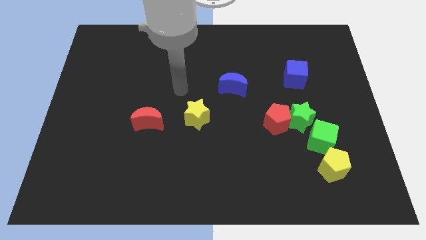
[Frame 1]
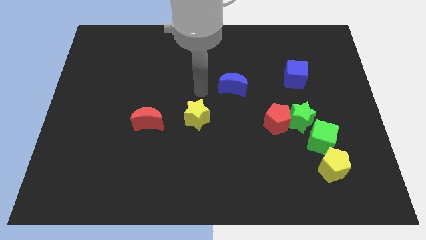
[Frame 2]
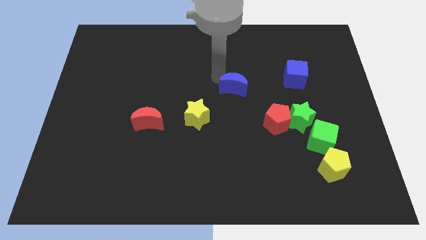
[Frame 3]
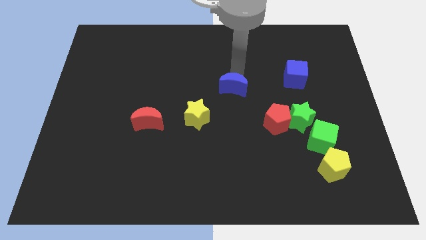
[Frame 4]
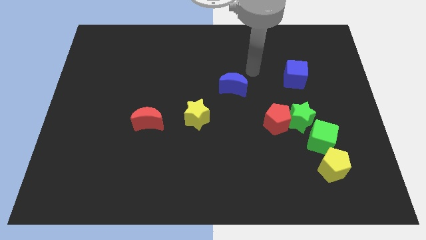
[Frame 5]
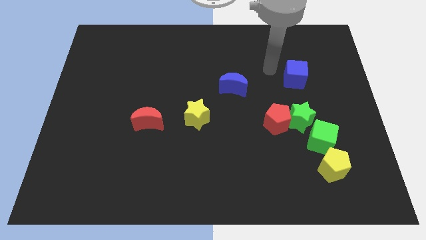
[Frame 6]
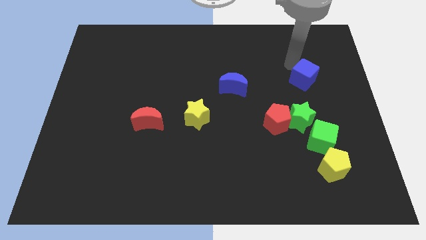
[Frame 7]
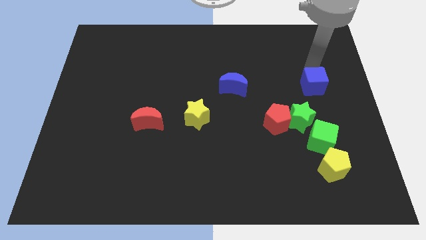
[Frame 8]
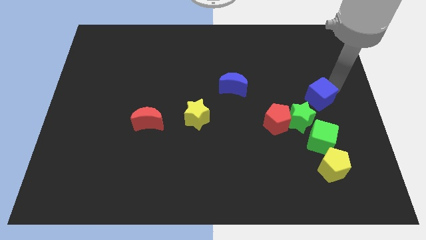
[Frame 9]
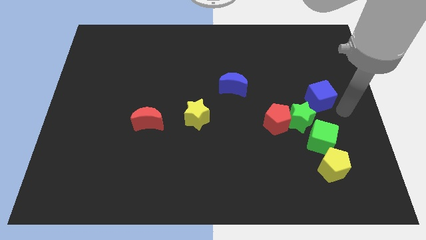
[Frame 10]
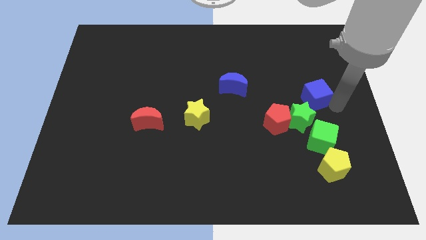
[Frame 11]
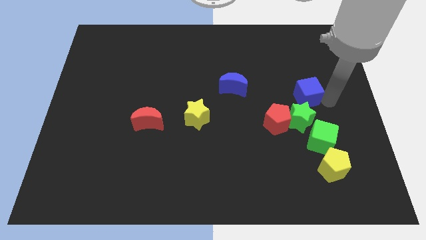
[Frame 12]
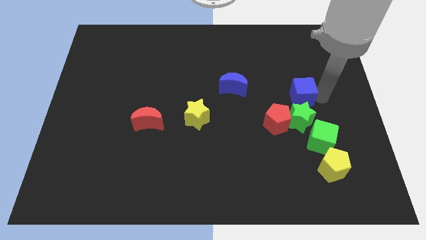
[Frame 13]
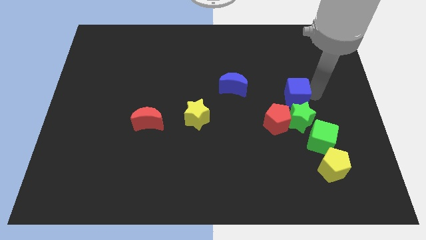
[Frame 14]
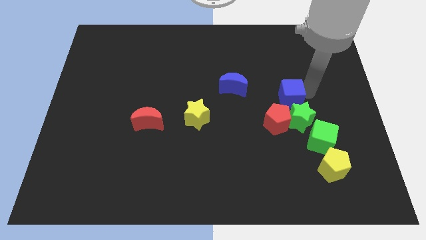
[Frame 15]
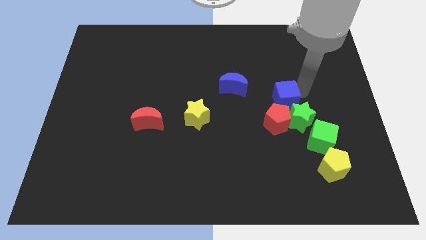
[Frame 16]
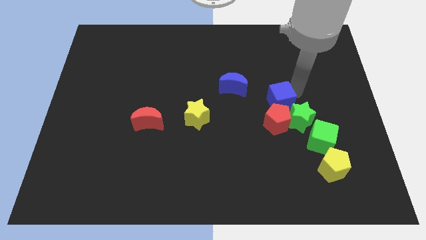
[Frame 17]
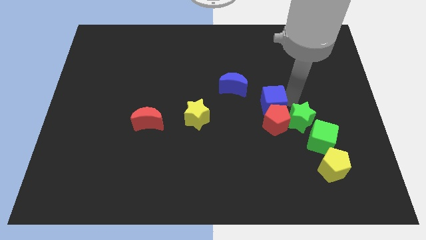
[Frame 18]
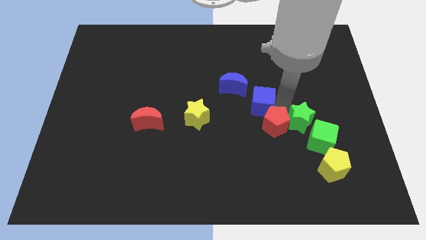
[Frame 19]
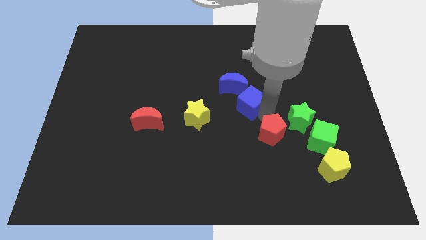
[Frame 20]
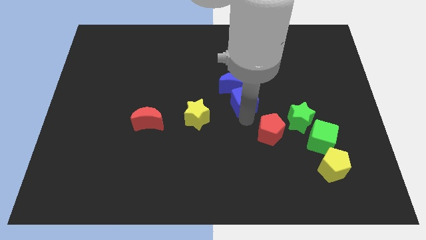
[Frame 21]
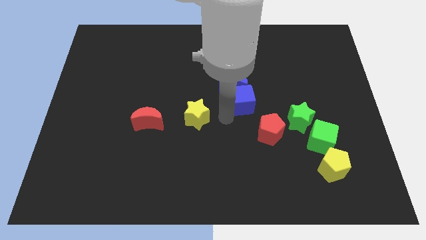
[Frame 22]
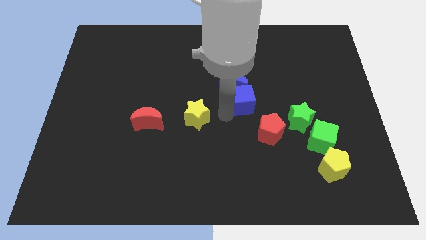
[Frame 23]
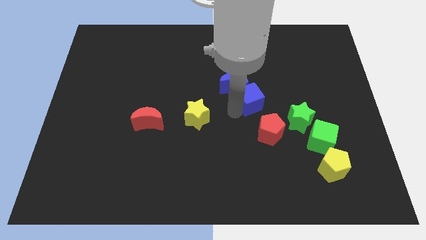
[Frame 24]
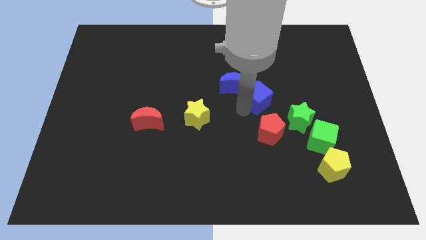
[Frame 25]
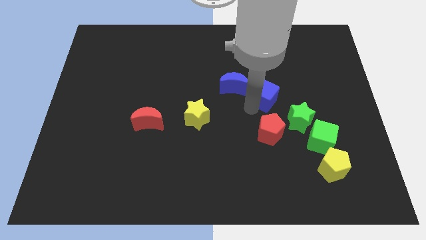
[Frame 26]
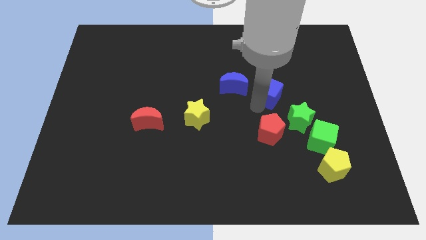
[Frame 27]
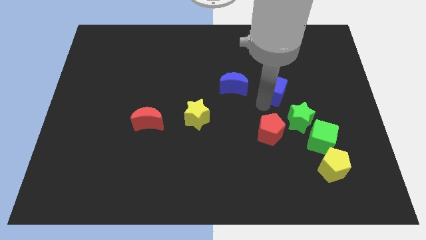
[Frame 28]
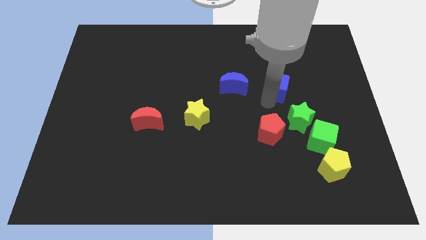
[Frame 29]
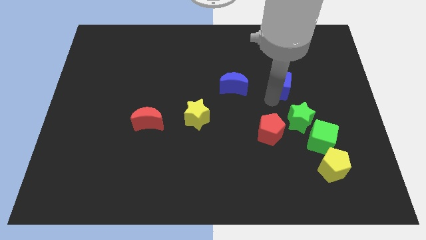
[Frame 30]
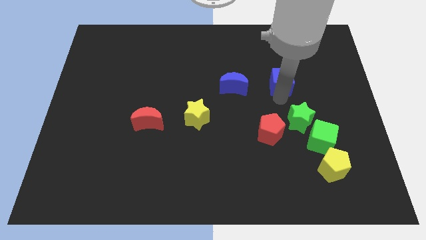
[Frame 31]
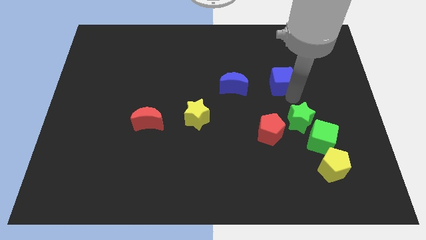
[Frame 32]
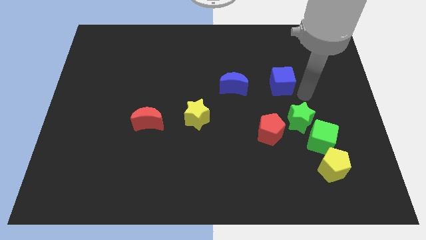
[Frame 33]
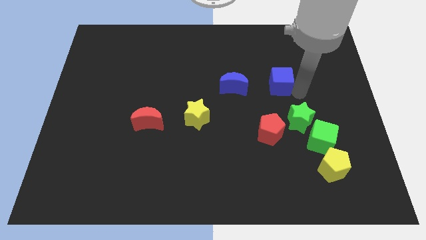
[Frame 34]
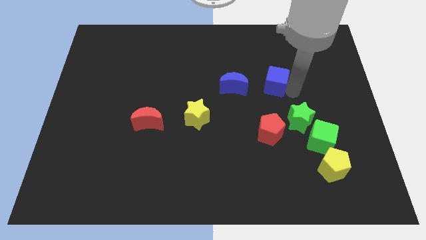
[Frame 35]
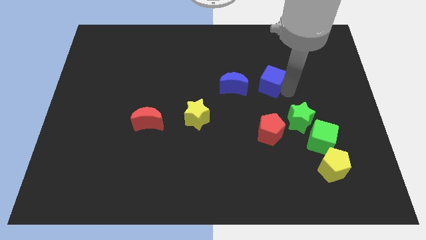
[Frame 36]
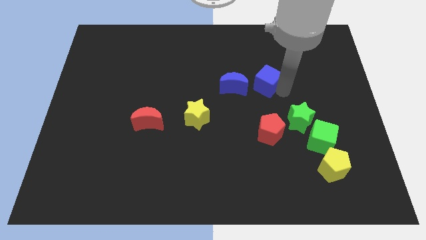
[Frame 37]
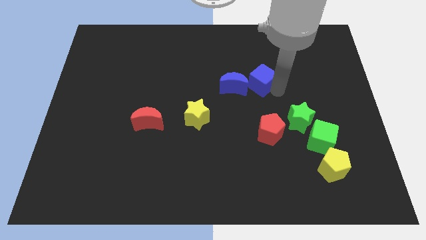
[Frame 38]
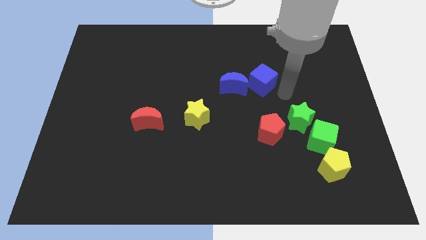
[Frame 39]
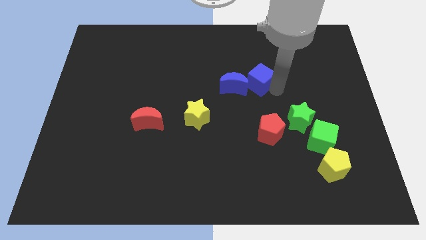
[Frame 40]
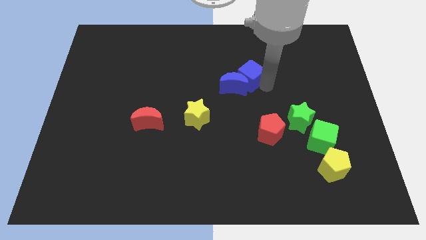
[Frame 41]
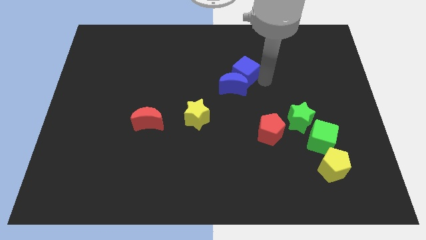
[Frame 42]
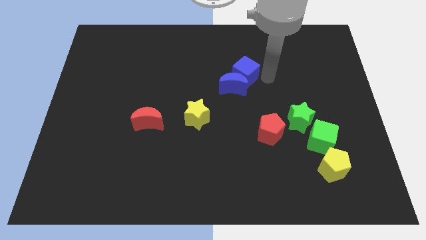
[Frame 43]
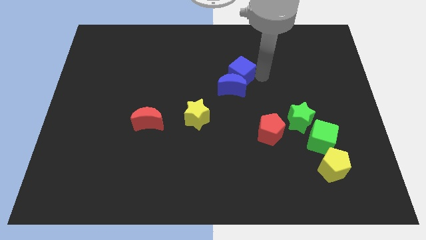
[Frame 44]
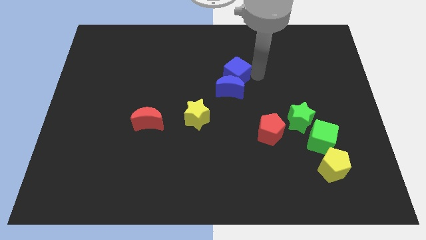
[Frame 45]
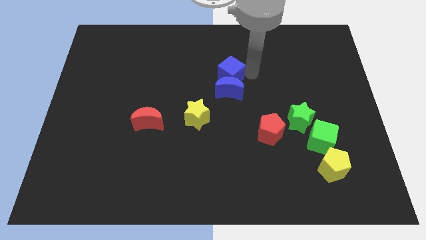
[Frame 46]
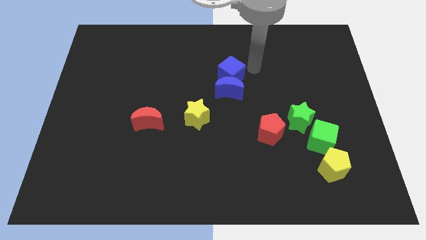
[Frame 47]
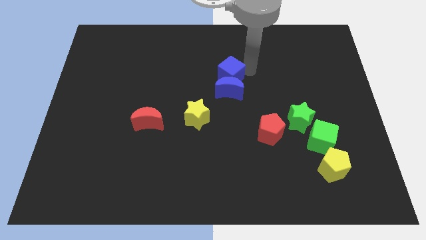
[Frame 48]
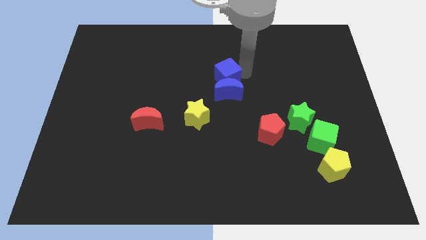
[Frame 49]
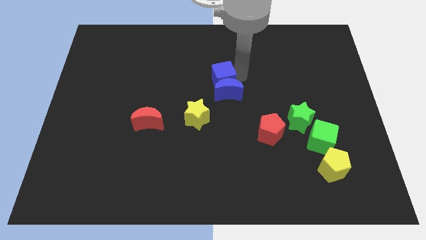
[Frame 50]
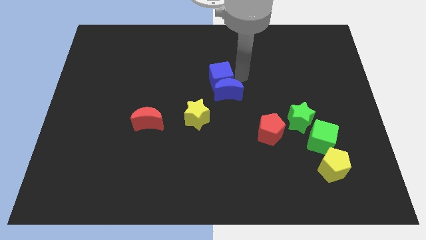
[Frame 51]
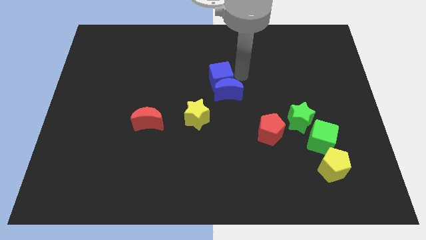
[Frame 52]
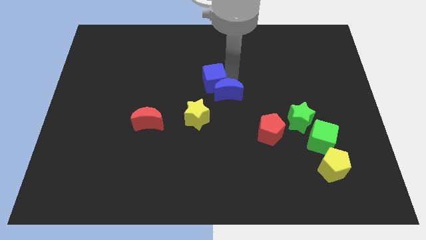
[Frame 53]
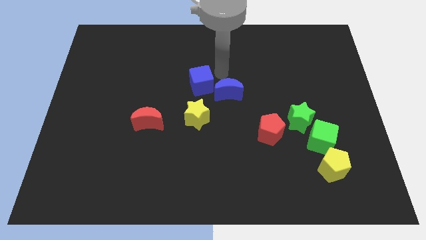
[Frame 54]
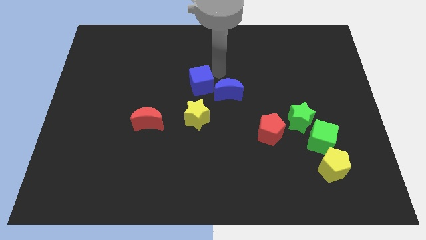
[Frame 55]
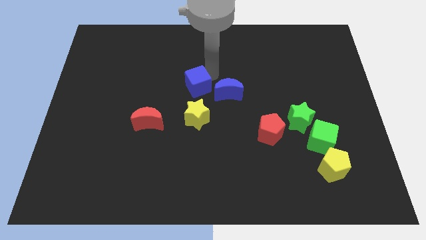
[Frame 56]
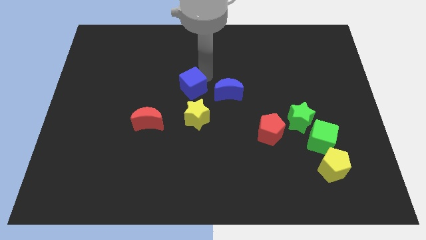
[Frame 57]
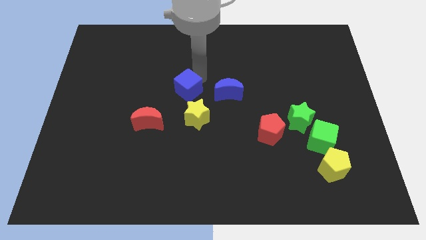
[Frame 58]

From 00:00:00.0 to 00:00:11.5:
move the blue cube diagonally up and to the left of the yellow star

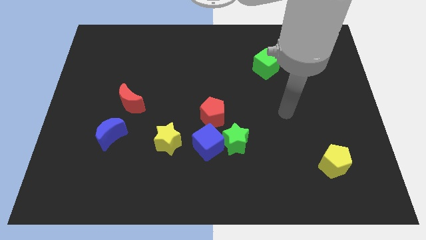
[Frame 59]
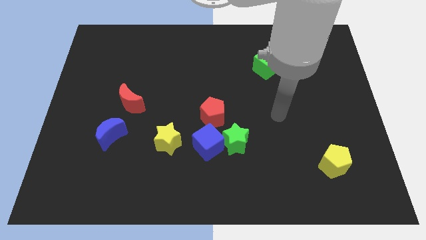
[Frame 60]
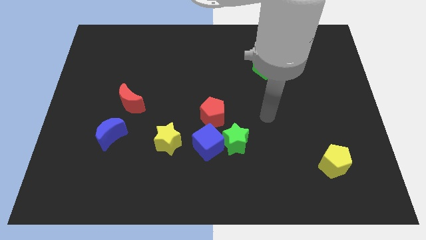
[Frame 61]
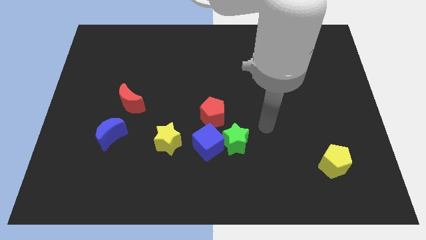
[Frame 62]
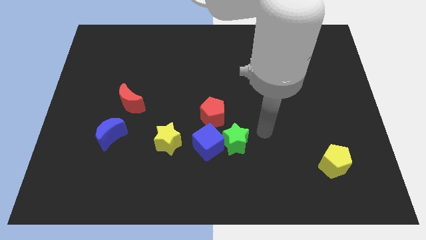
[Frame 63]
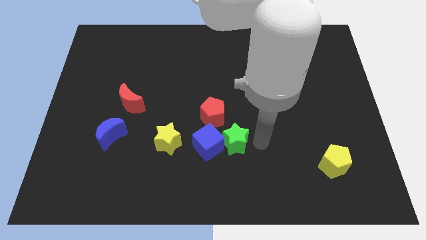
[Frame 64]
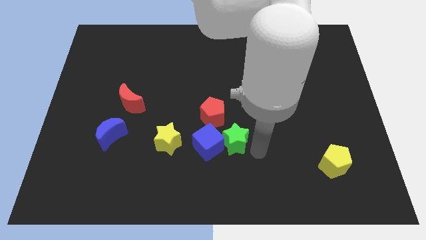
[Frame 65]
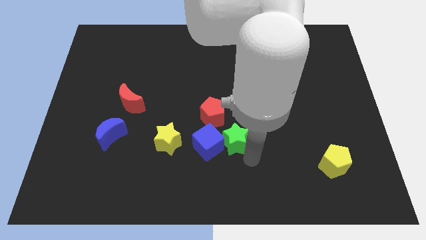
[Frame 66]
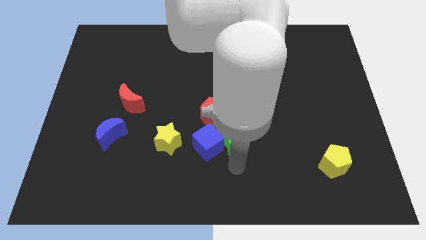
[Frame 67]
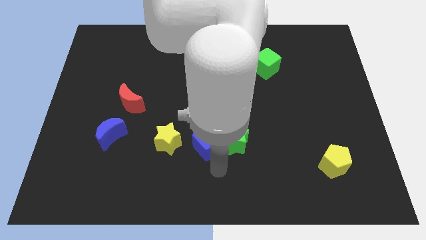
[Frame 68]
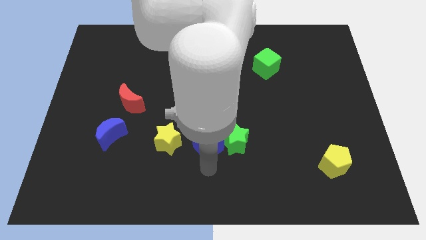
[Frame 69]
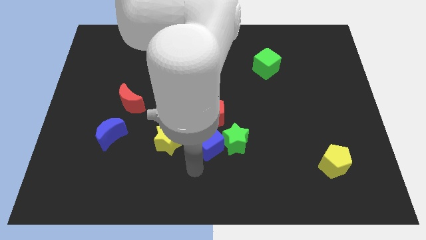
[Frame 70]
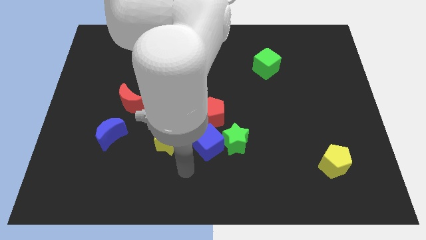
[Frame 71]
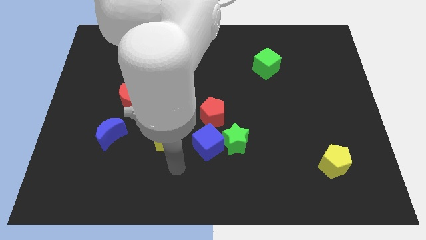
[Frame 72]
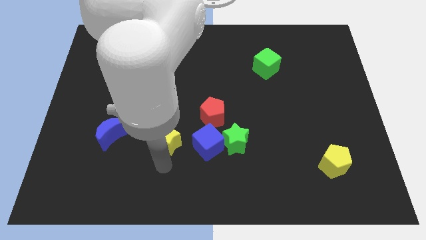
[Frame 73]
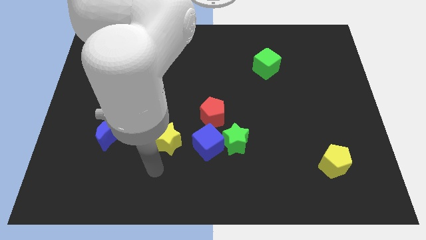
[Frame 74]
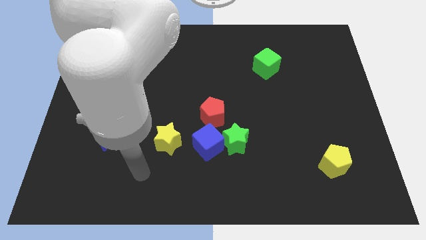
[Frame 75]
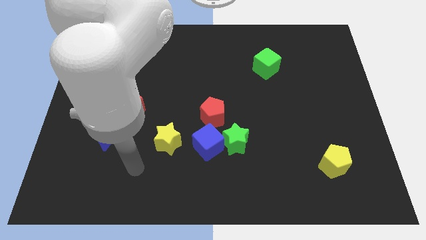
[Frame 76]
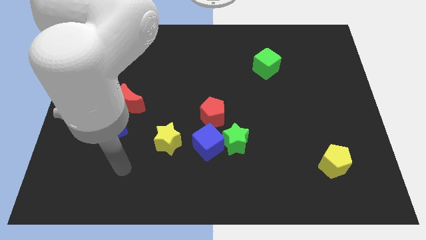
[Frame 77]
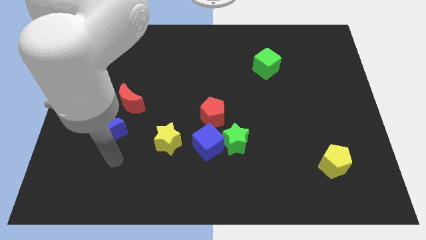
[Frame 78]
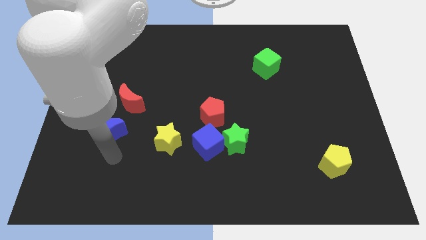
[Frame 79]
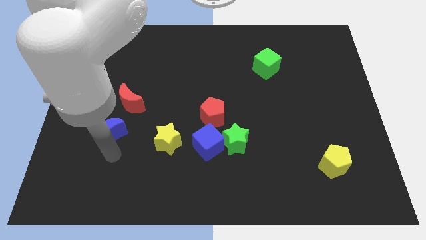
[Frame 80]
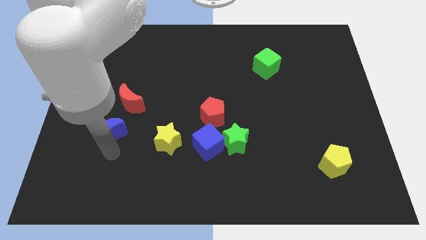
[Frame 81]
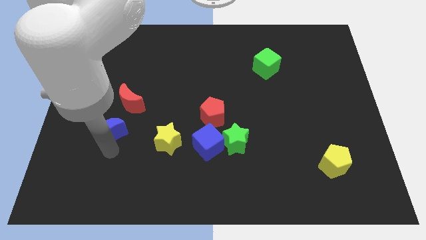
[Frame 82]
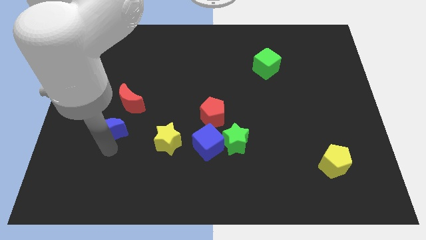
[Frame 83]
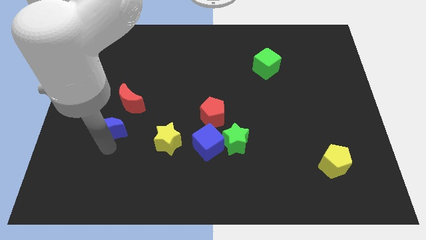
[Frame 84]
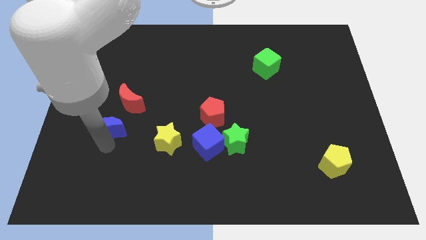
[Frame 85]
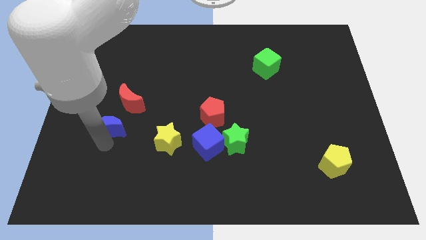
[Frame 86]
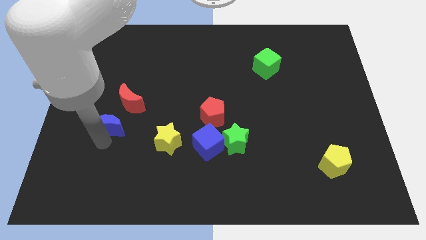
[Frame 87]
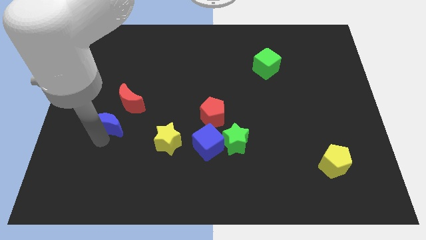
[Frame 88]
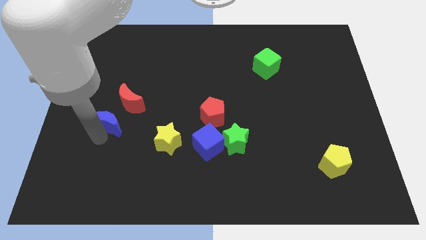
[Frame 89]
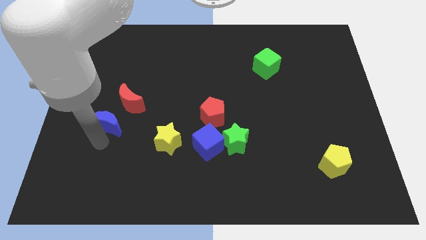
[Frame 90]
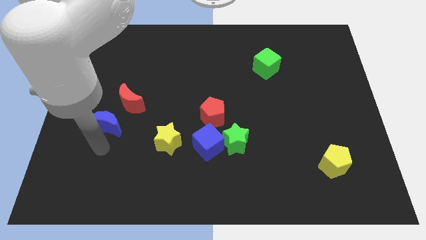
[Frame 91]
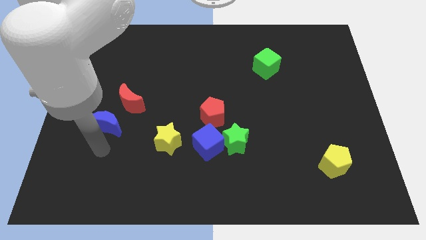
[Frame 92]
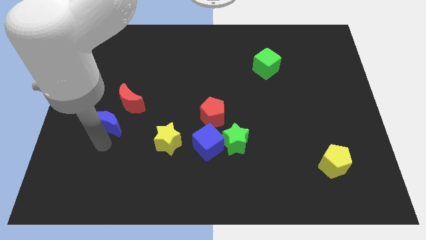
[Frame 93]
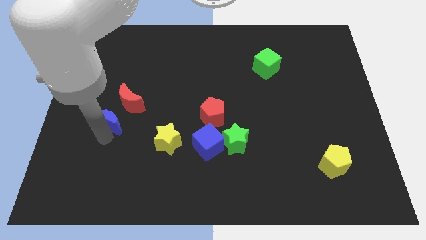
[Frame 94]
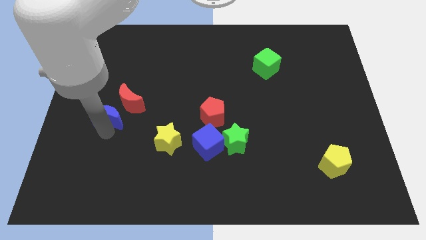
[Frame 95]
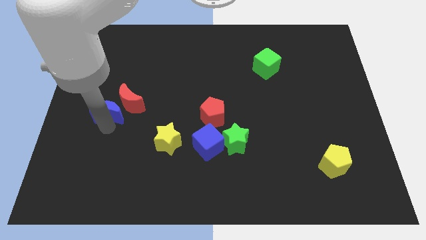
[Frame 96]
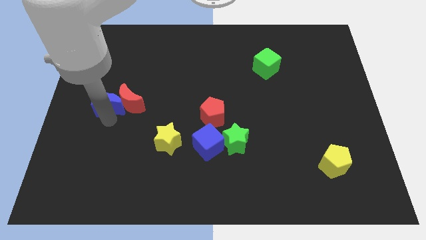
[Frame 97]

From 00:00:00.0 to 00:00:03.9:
slide the blue moon to the top left side of the red moon
